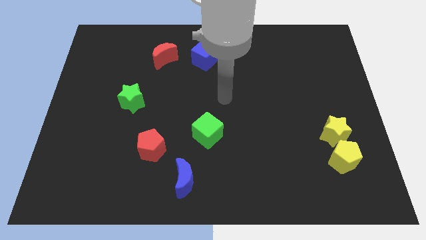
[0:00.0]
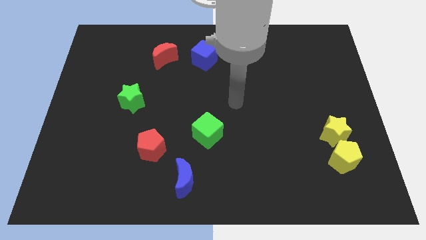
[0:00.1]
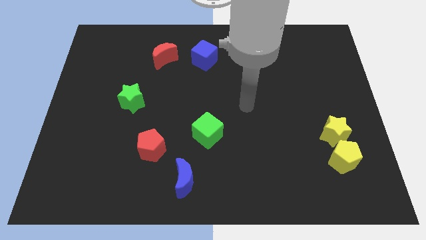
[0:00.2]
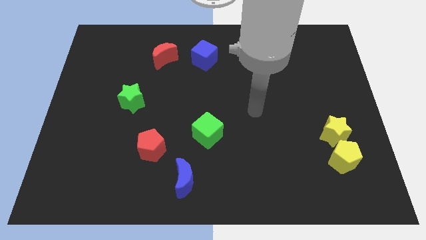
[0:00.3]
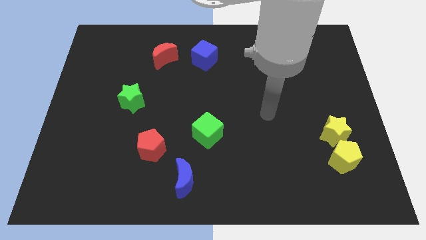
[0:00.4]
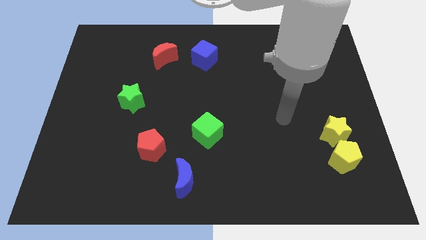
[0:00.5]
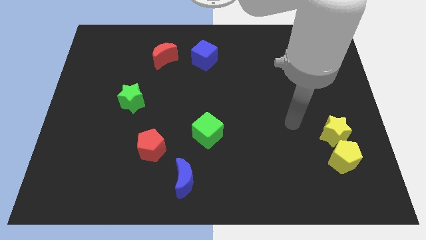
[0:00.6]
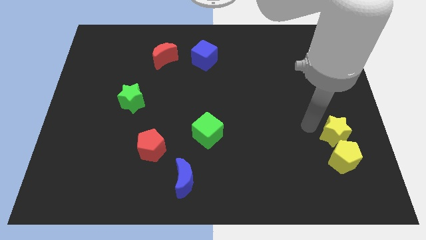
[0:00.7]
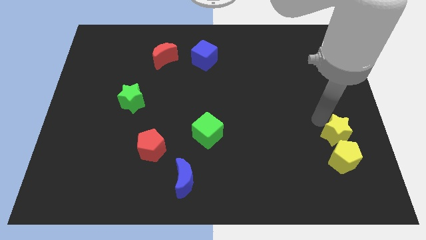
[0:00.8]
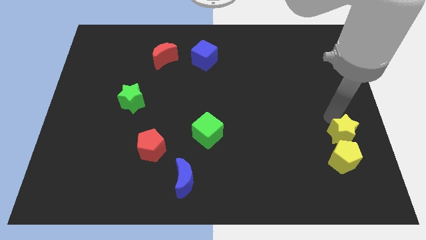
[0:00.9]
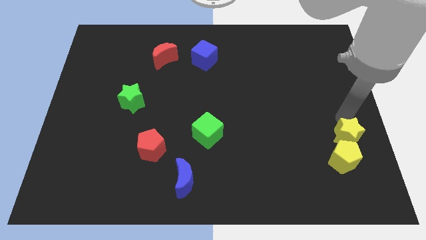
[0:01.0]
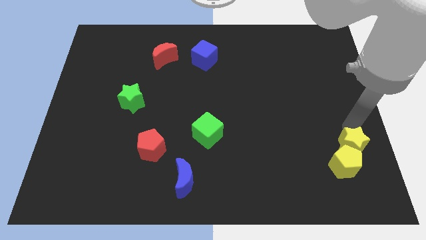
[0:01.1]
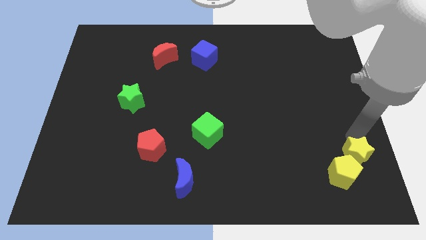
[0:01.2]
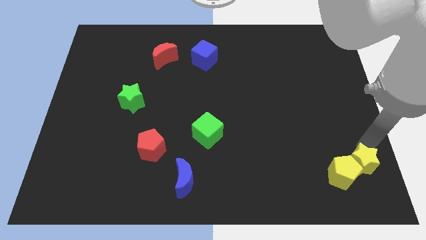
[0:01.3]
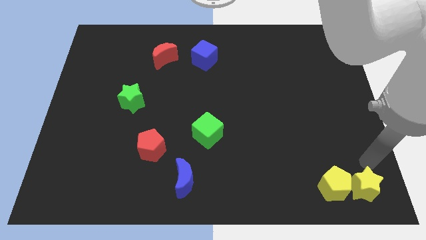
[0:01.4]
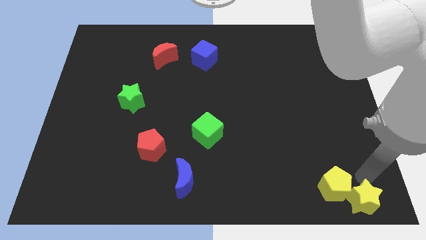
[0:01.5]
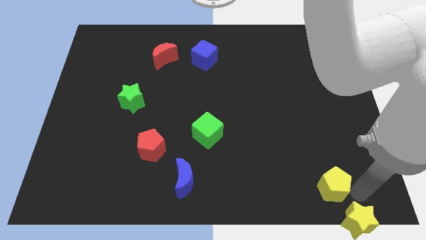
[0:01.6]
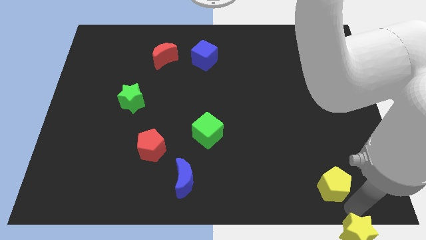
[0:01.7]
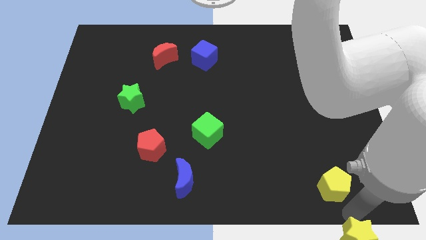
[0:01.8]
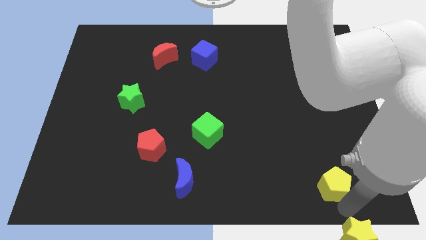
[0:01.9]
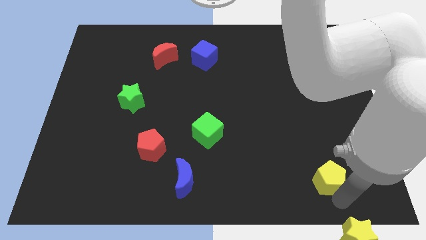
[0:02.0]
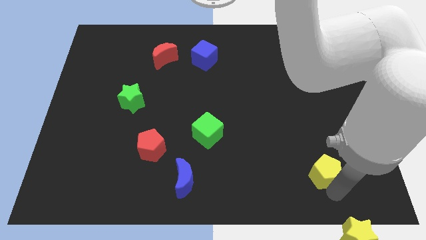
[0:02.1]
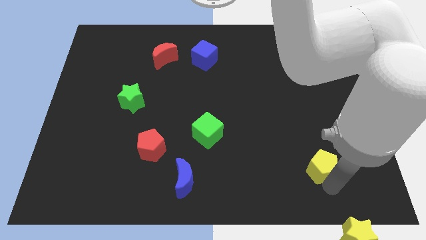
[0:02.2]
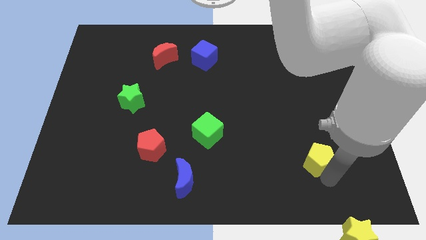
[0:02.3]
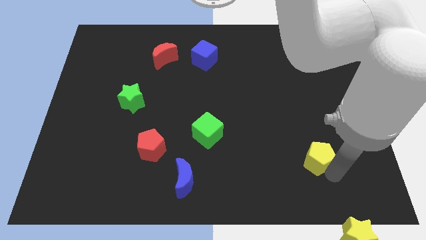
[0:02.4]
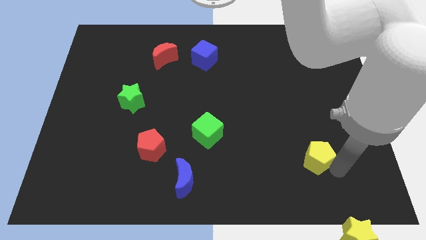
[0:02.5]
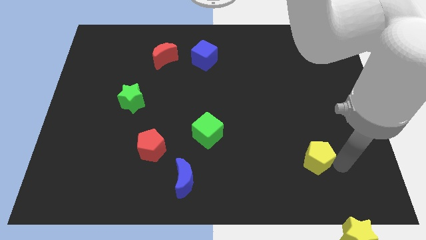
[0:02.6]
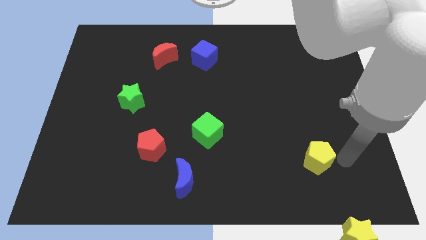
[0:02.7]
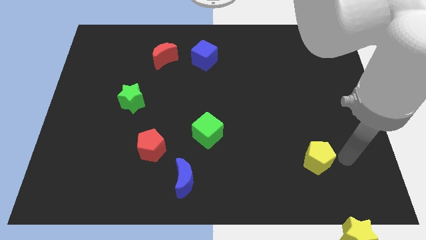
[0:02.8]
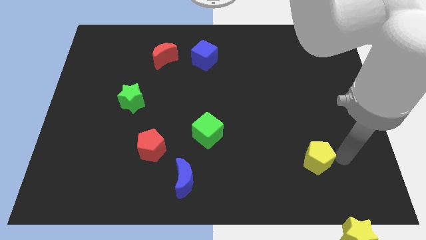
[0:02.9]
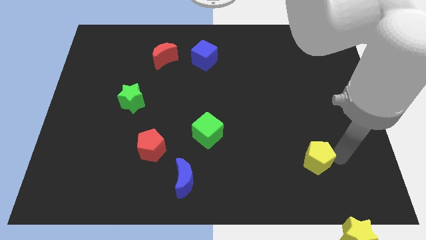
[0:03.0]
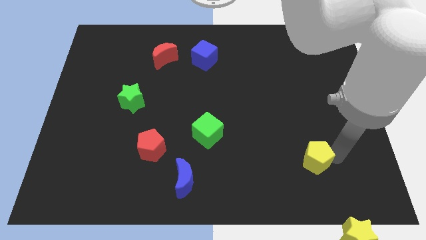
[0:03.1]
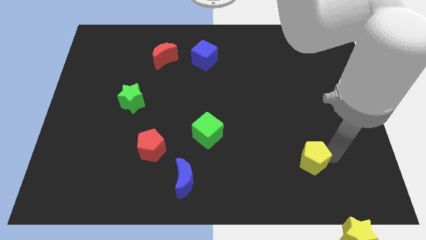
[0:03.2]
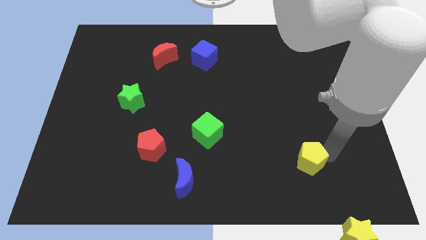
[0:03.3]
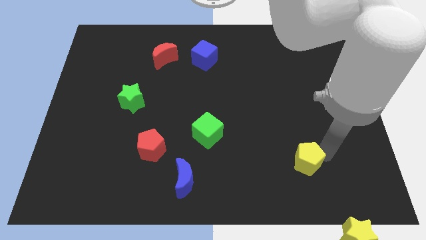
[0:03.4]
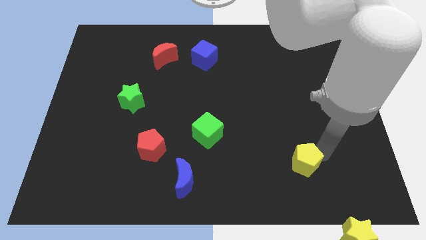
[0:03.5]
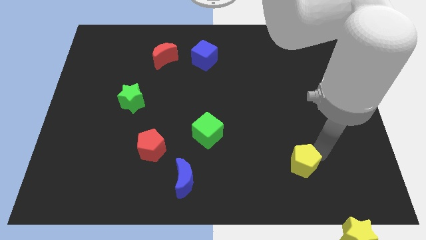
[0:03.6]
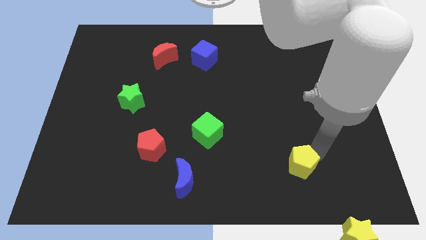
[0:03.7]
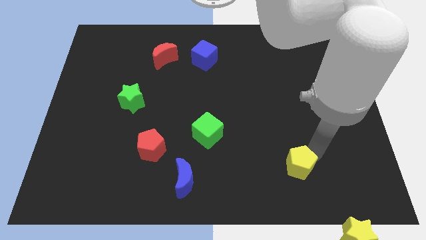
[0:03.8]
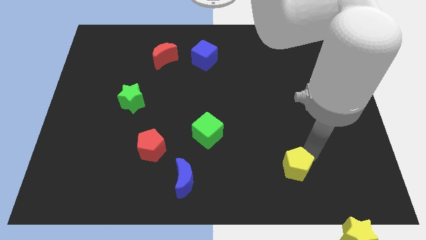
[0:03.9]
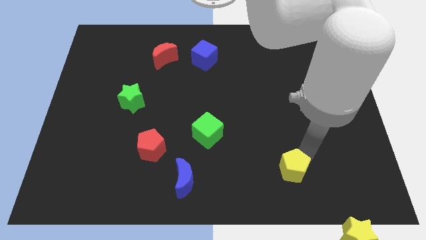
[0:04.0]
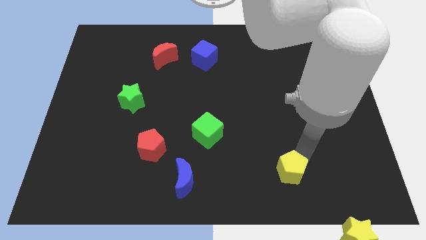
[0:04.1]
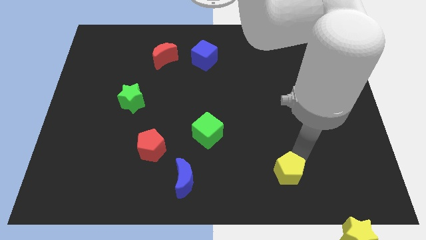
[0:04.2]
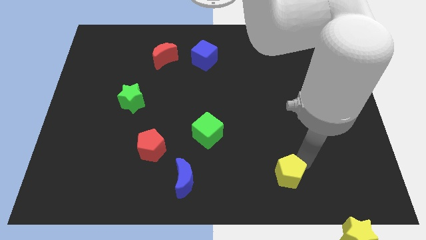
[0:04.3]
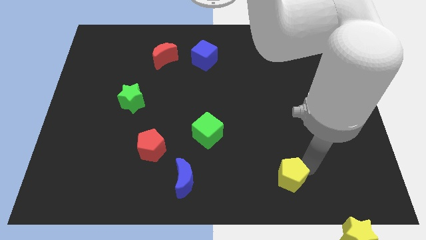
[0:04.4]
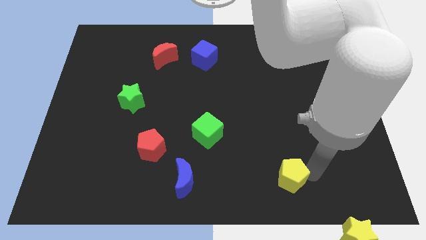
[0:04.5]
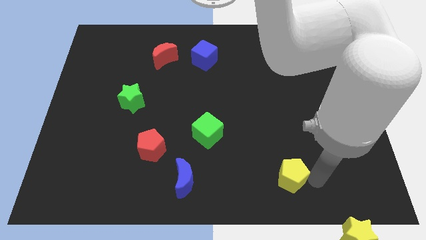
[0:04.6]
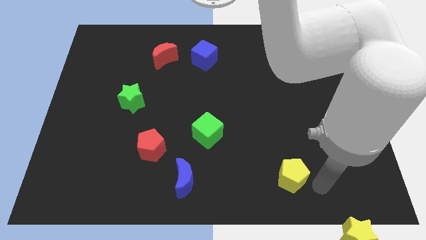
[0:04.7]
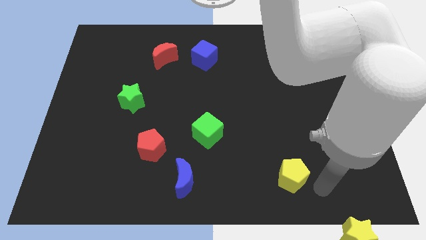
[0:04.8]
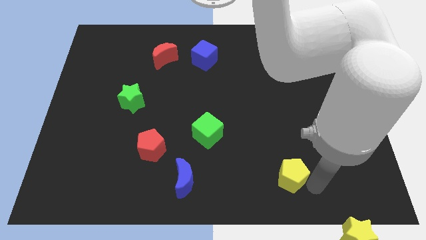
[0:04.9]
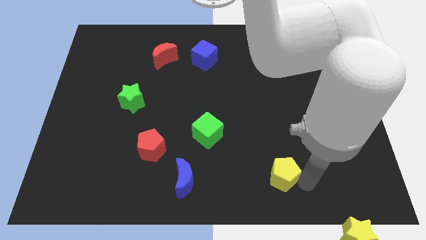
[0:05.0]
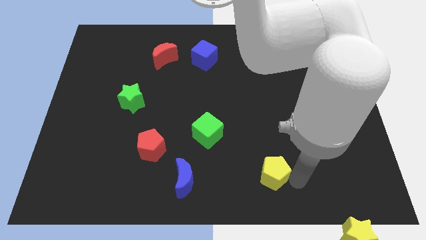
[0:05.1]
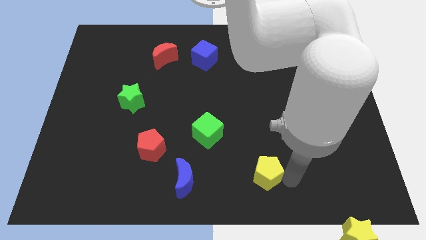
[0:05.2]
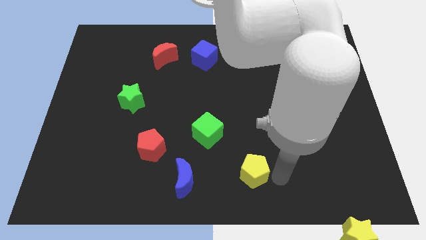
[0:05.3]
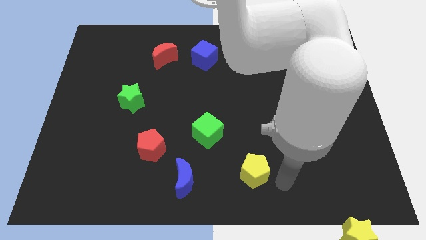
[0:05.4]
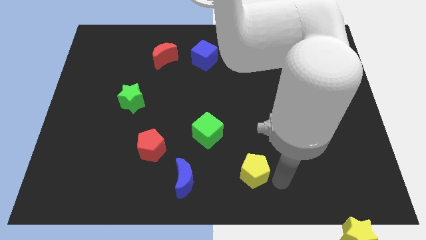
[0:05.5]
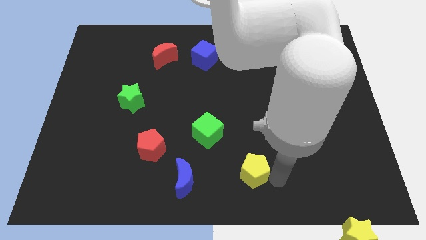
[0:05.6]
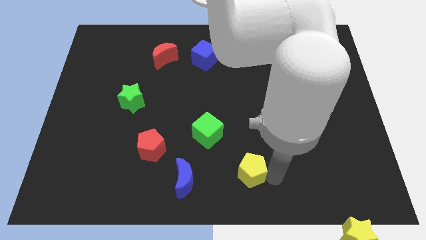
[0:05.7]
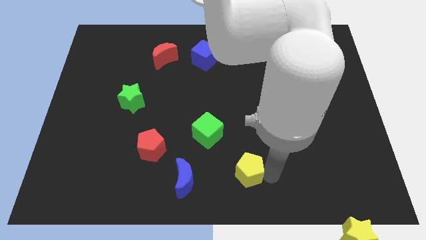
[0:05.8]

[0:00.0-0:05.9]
move the yellow pentagon to the left

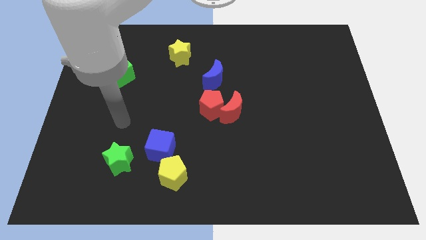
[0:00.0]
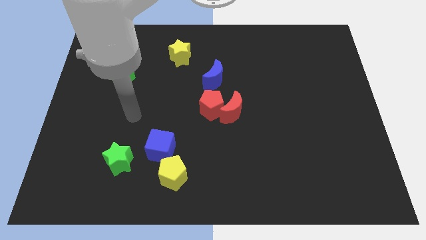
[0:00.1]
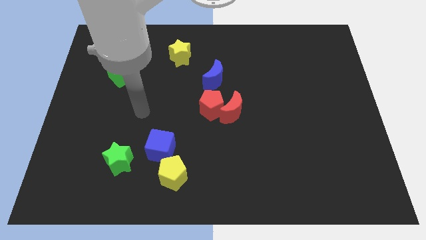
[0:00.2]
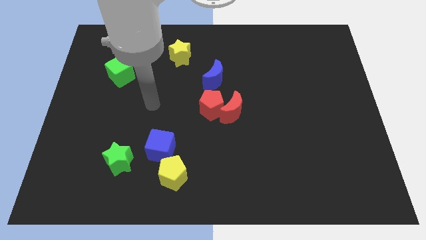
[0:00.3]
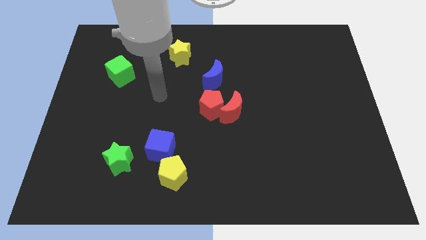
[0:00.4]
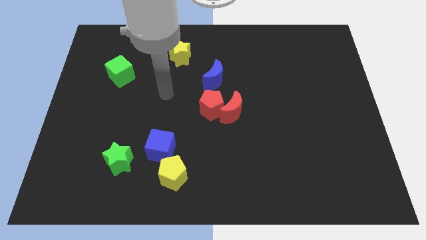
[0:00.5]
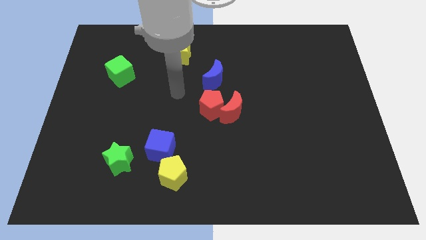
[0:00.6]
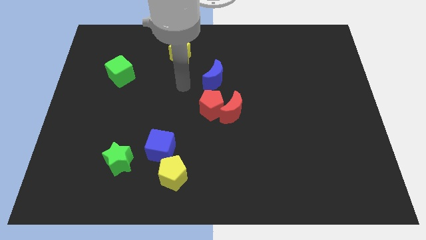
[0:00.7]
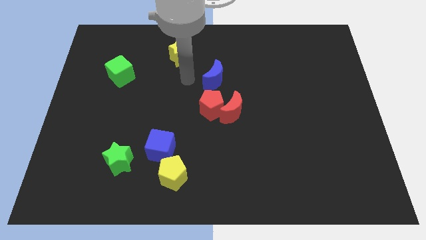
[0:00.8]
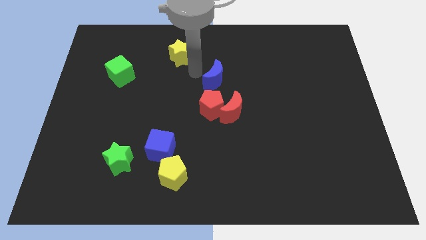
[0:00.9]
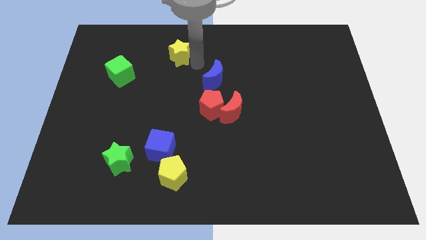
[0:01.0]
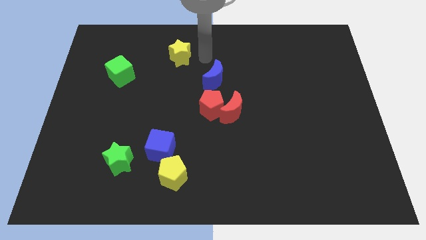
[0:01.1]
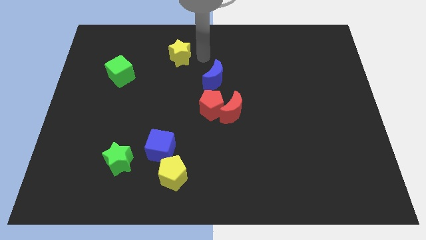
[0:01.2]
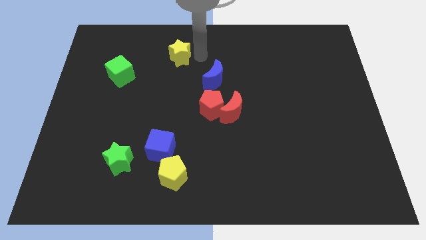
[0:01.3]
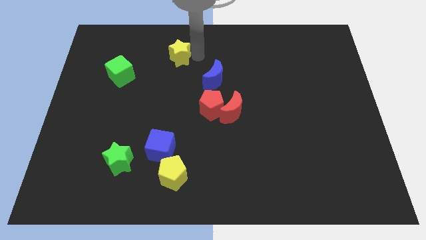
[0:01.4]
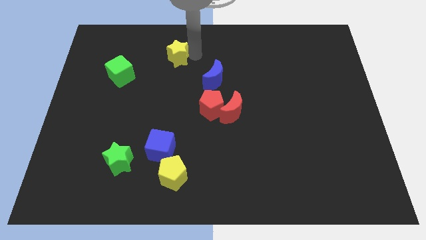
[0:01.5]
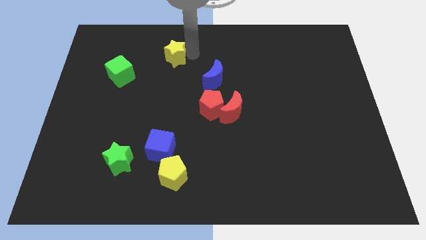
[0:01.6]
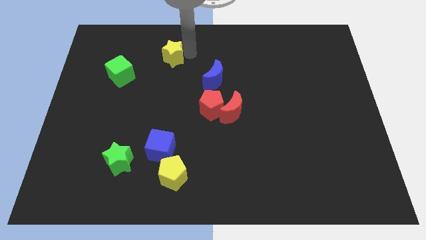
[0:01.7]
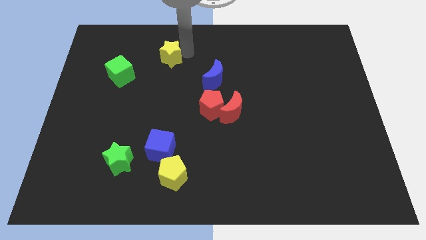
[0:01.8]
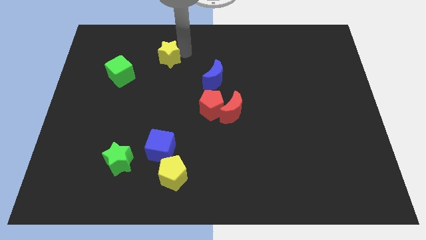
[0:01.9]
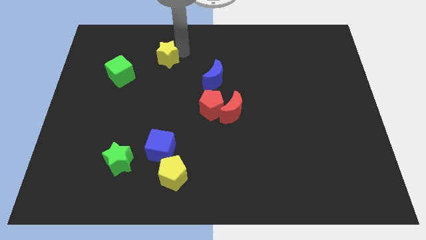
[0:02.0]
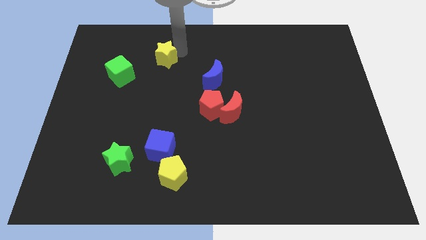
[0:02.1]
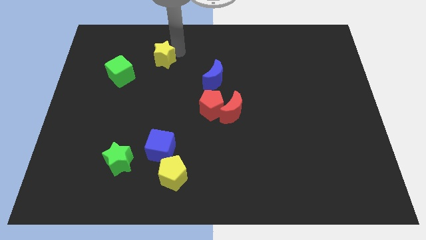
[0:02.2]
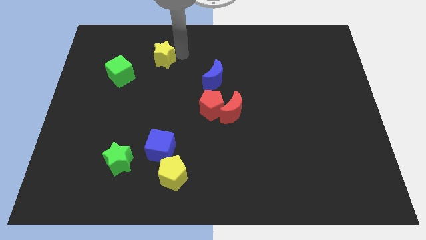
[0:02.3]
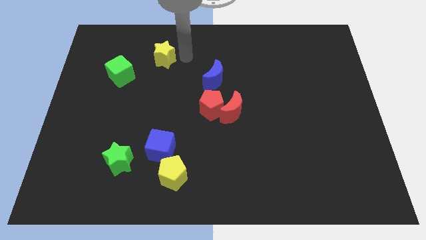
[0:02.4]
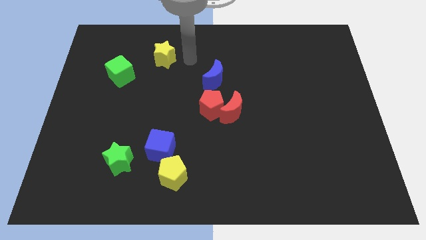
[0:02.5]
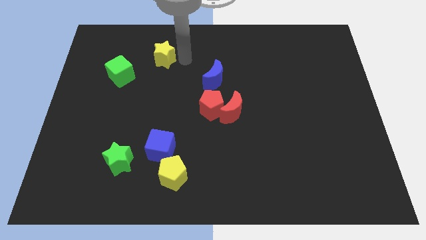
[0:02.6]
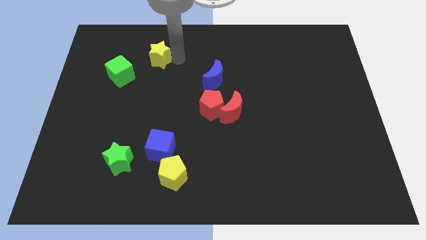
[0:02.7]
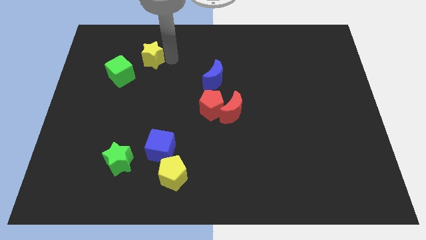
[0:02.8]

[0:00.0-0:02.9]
move the yellow star a bit to the left

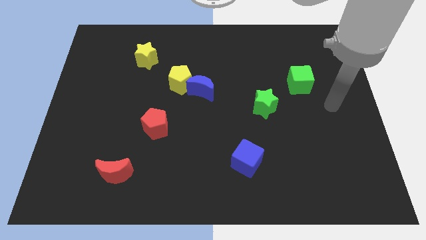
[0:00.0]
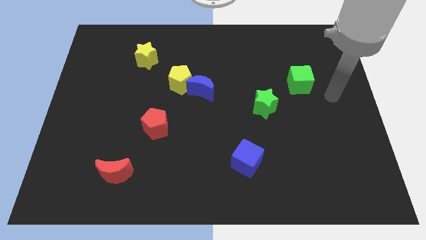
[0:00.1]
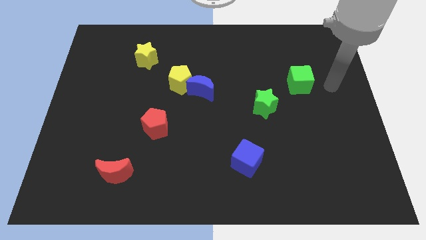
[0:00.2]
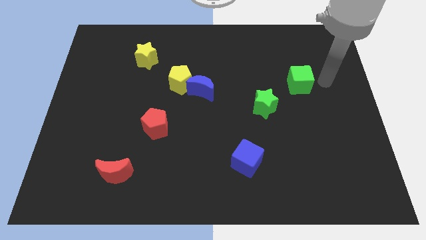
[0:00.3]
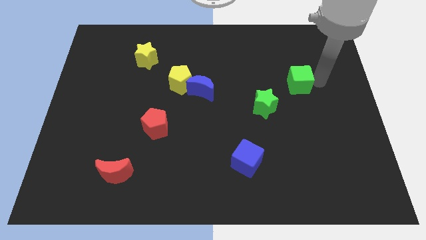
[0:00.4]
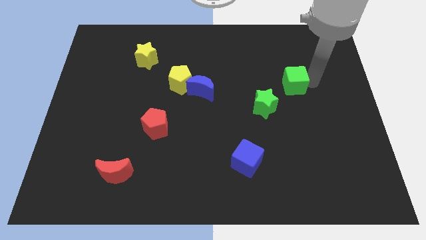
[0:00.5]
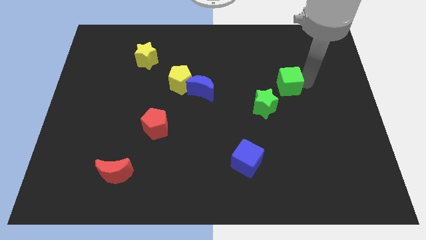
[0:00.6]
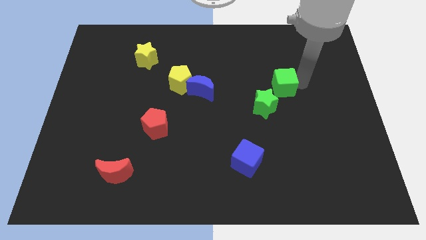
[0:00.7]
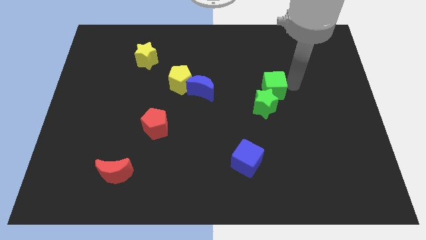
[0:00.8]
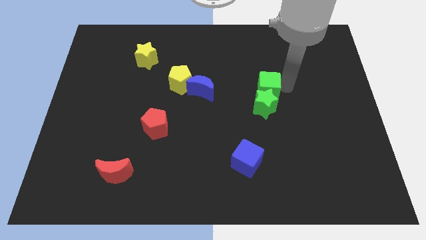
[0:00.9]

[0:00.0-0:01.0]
slightly slide the green cube to the left
